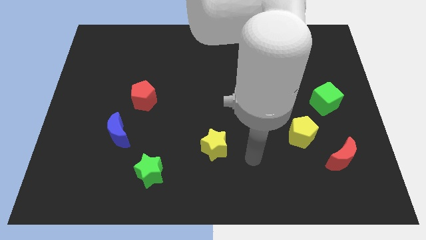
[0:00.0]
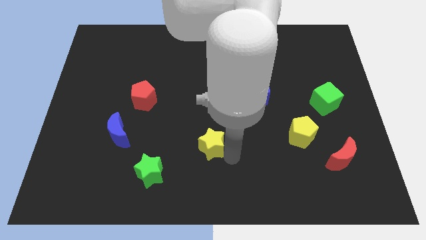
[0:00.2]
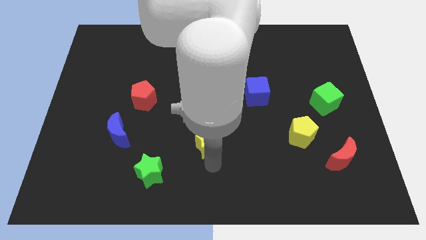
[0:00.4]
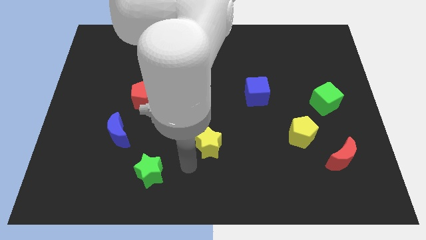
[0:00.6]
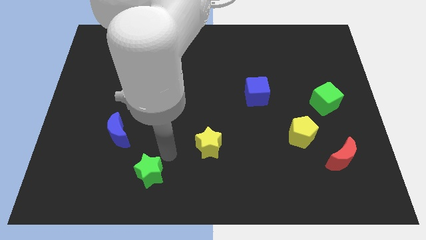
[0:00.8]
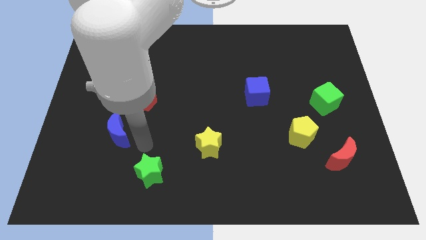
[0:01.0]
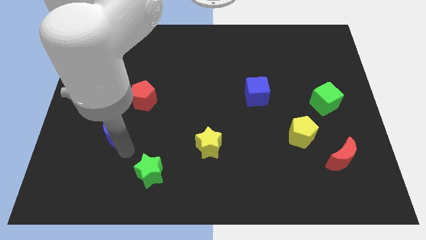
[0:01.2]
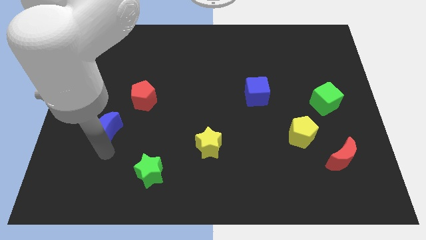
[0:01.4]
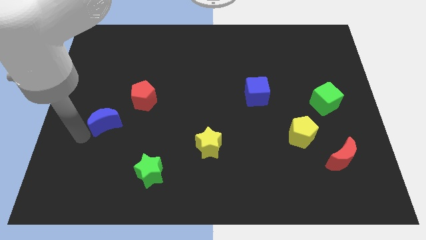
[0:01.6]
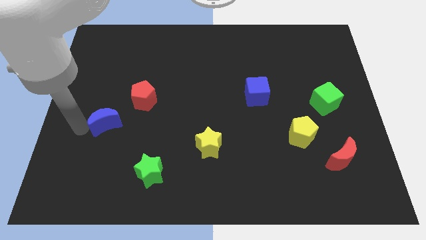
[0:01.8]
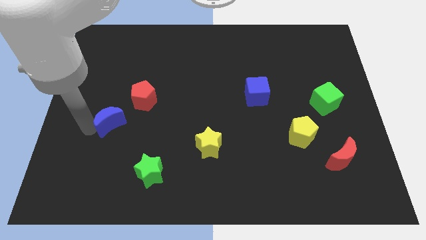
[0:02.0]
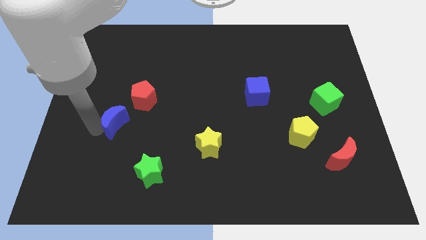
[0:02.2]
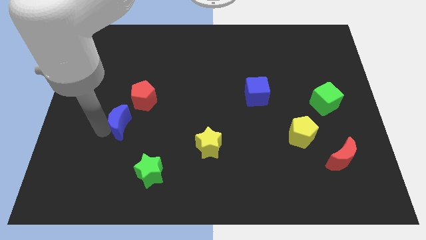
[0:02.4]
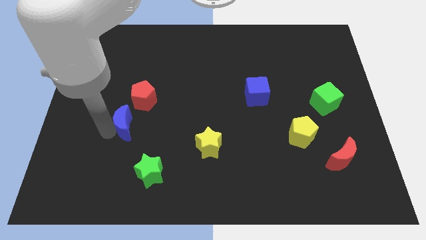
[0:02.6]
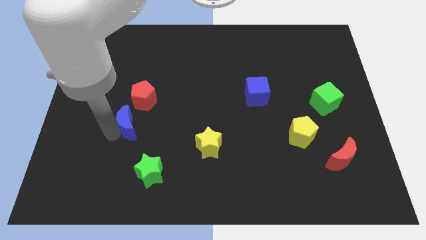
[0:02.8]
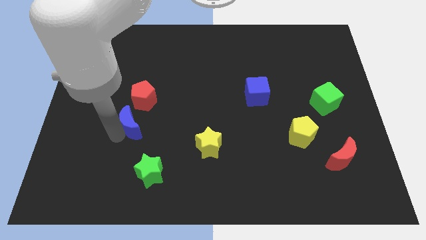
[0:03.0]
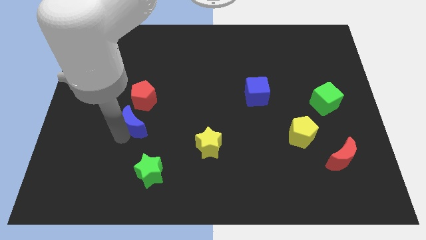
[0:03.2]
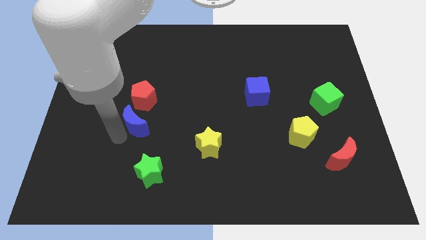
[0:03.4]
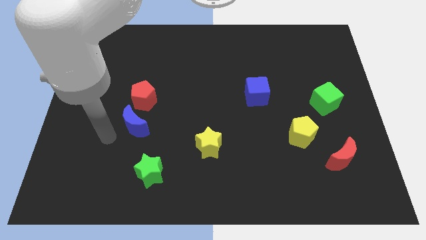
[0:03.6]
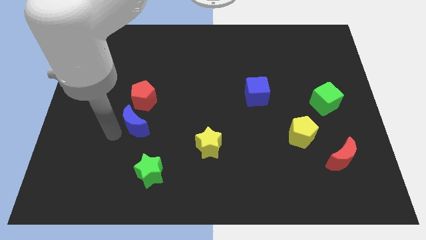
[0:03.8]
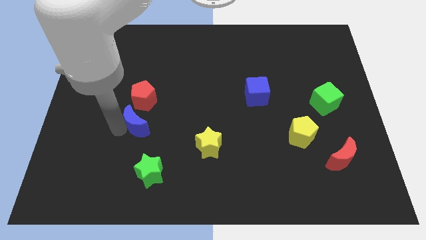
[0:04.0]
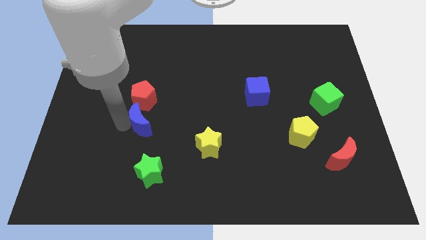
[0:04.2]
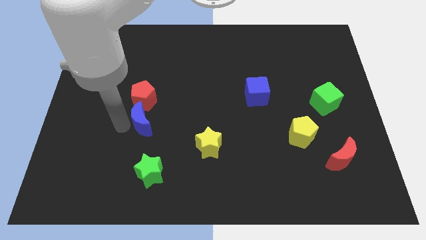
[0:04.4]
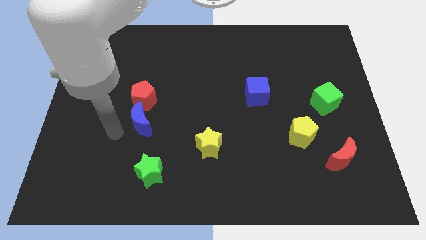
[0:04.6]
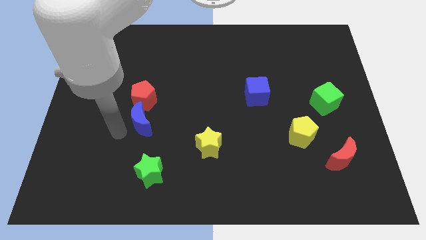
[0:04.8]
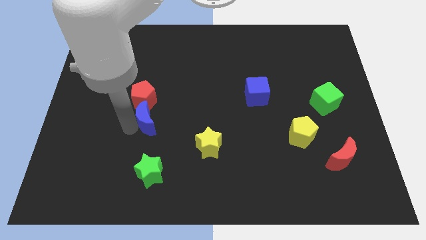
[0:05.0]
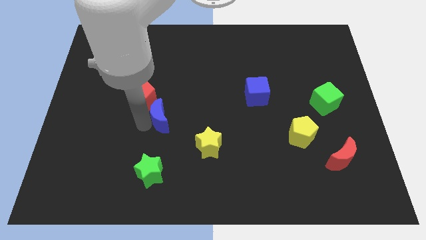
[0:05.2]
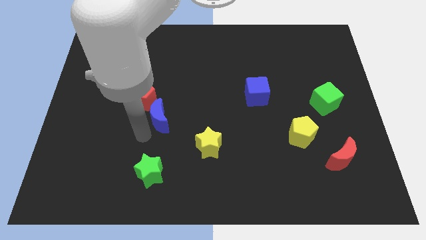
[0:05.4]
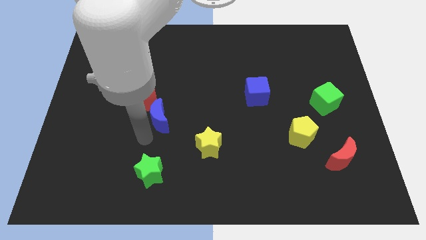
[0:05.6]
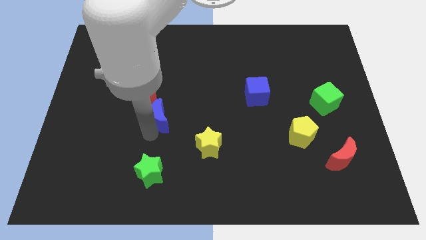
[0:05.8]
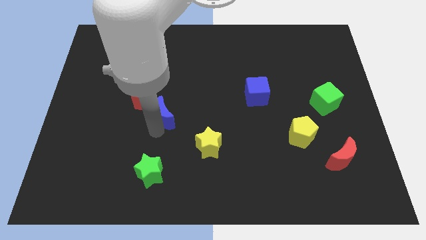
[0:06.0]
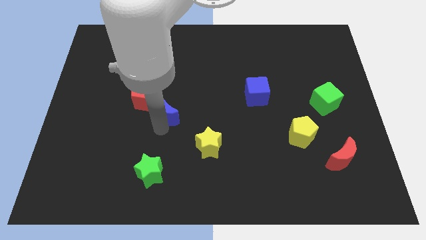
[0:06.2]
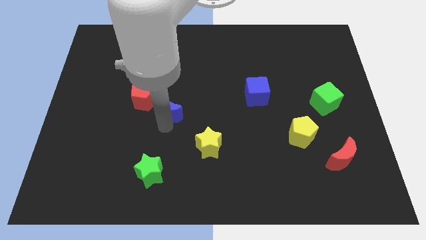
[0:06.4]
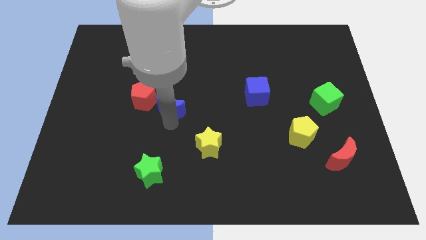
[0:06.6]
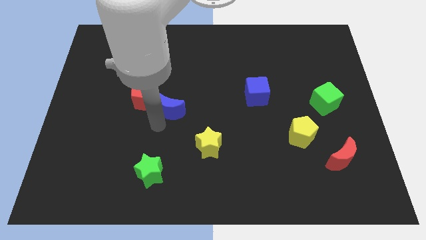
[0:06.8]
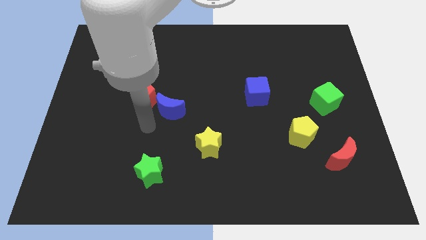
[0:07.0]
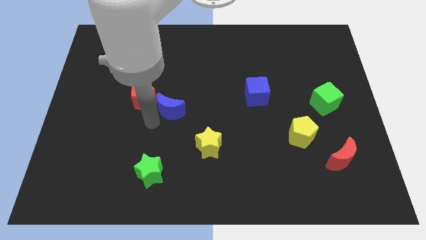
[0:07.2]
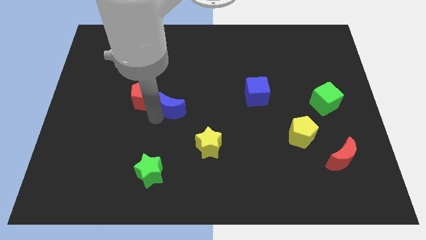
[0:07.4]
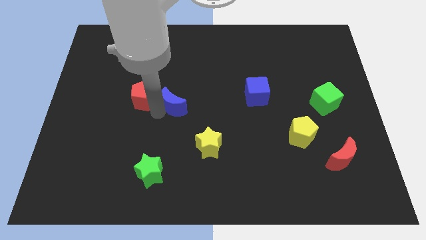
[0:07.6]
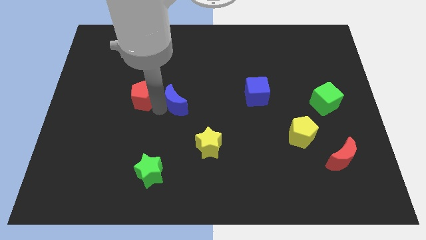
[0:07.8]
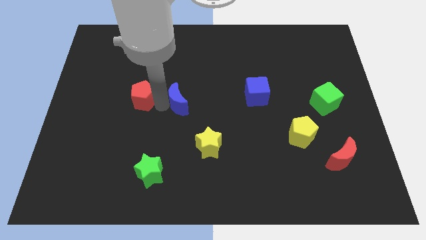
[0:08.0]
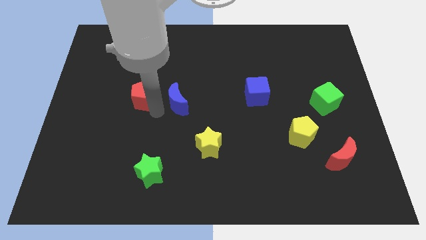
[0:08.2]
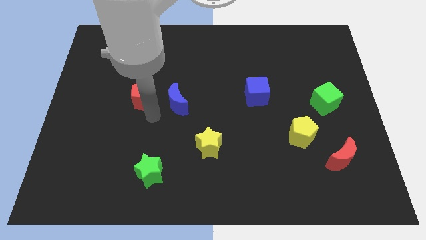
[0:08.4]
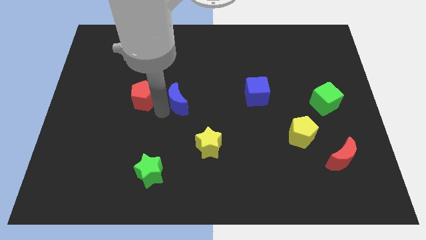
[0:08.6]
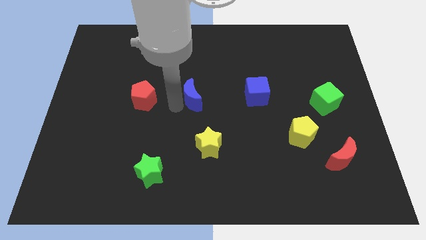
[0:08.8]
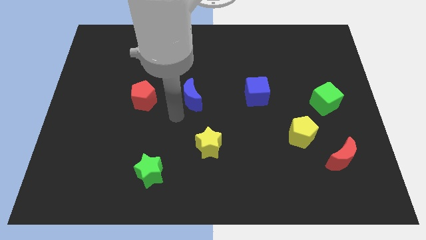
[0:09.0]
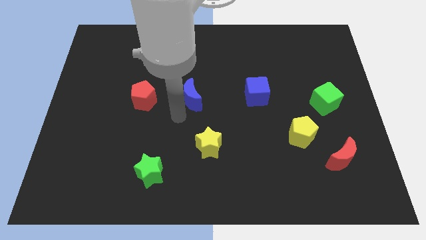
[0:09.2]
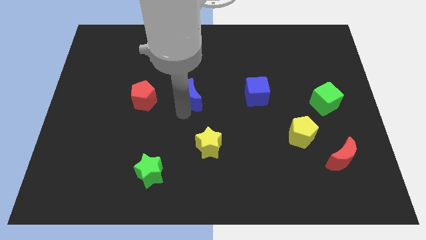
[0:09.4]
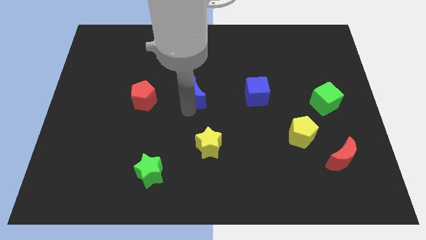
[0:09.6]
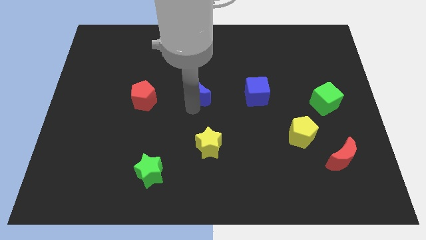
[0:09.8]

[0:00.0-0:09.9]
move the blue moon upwards and right

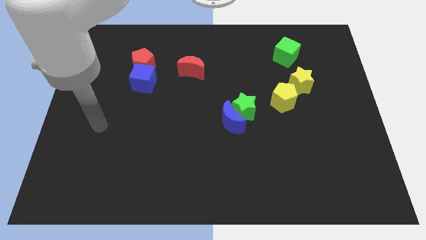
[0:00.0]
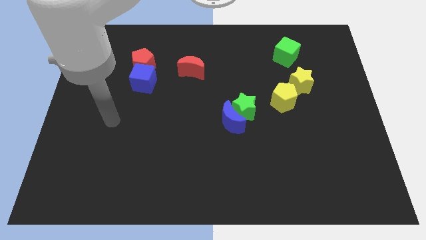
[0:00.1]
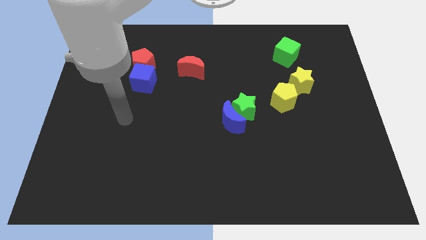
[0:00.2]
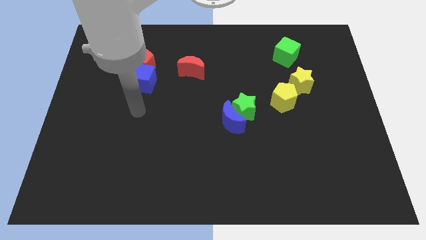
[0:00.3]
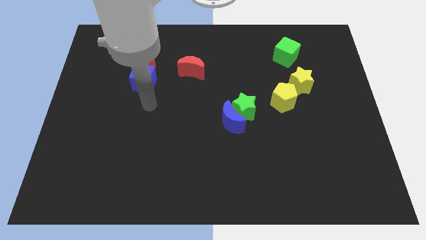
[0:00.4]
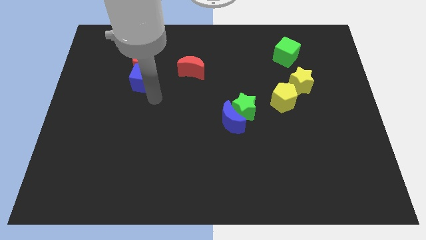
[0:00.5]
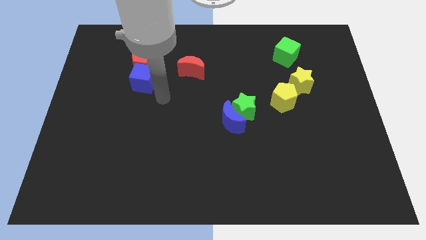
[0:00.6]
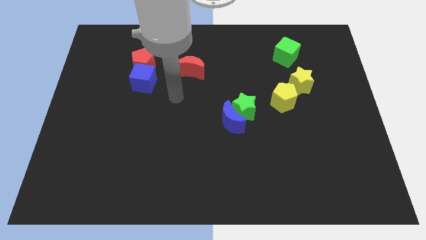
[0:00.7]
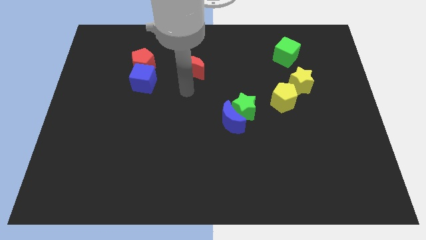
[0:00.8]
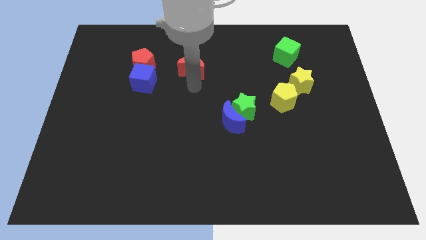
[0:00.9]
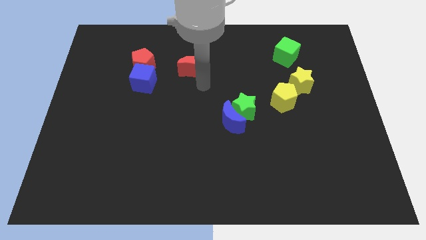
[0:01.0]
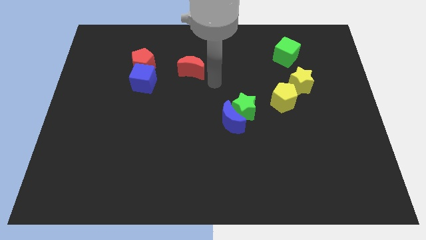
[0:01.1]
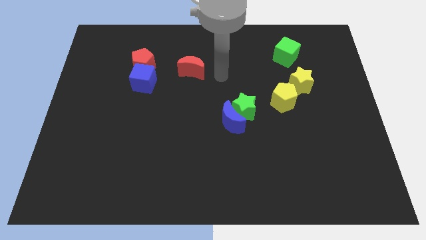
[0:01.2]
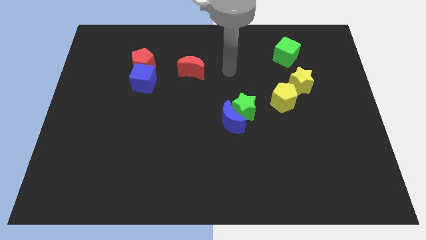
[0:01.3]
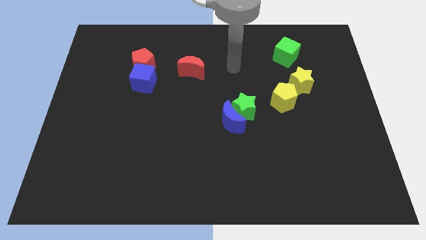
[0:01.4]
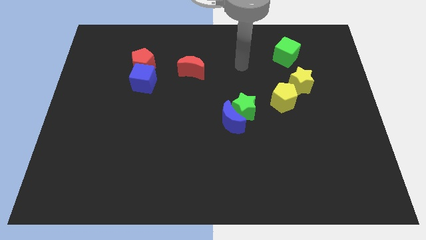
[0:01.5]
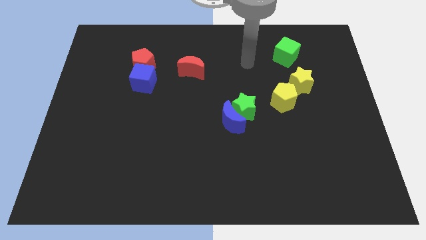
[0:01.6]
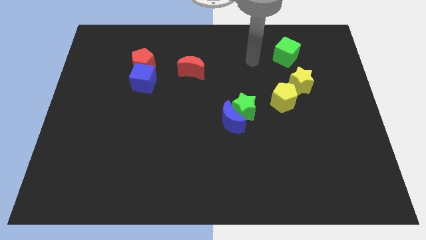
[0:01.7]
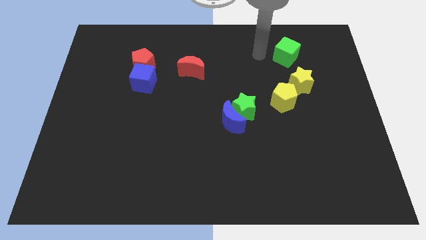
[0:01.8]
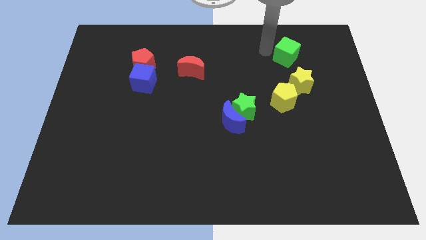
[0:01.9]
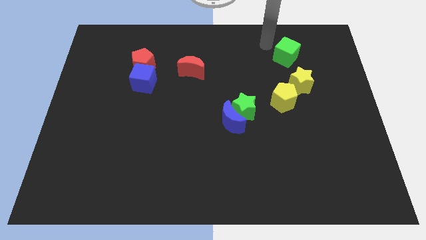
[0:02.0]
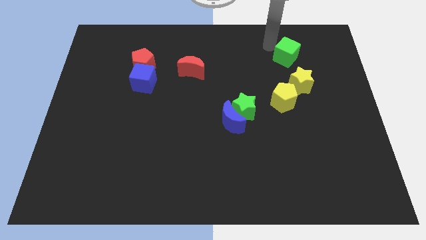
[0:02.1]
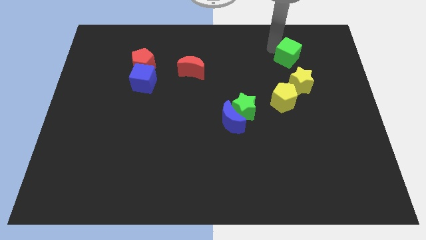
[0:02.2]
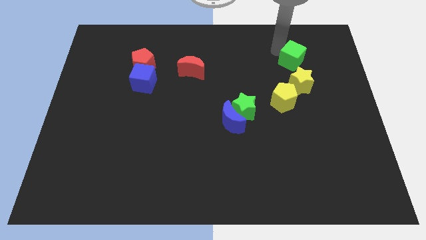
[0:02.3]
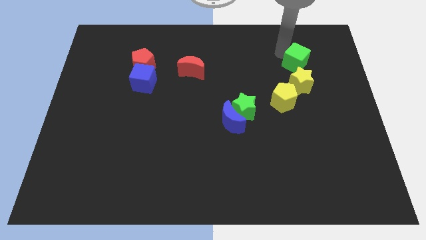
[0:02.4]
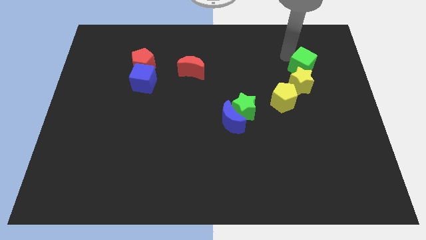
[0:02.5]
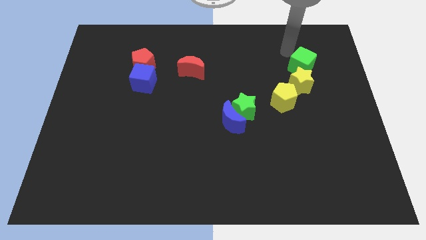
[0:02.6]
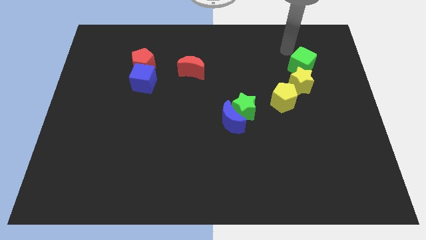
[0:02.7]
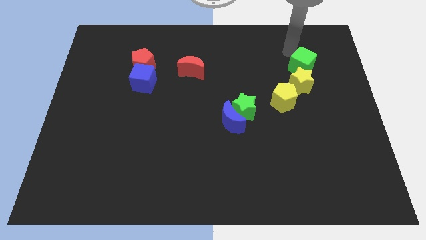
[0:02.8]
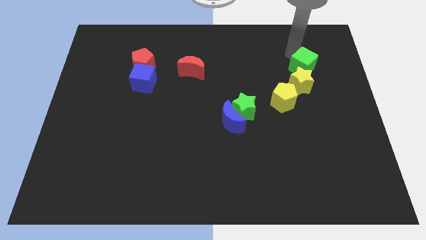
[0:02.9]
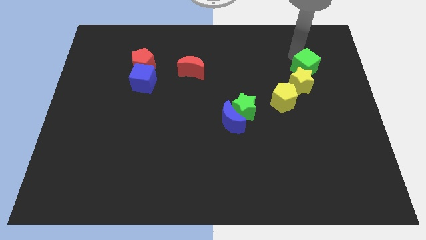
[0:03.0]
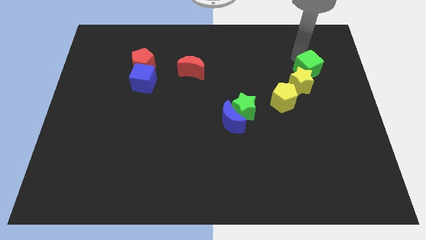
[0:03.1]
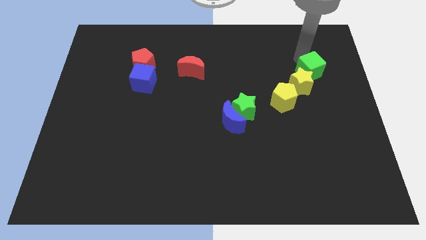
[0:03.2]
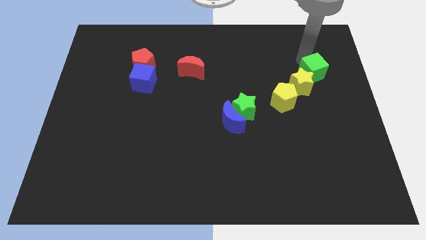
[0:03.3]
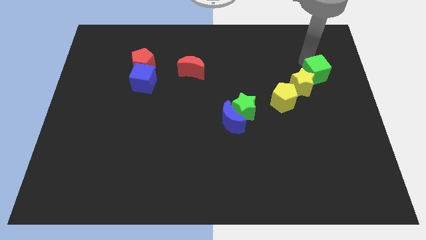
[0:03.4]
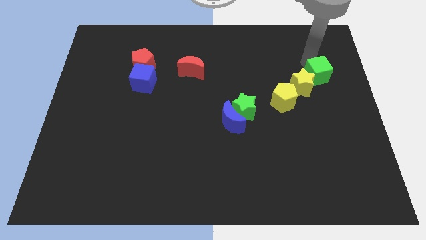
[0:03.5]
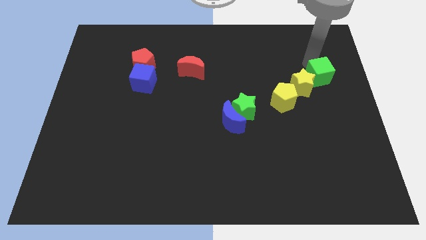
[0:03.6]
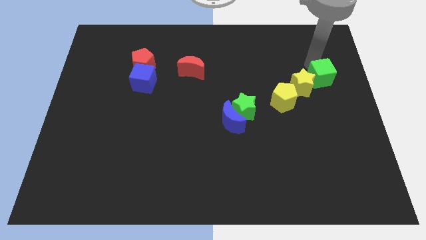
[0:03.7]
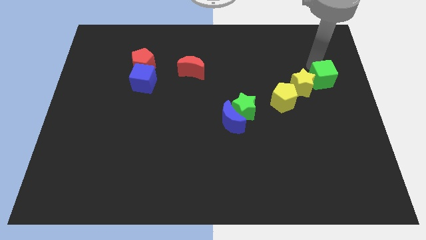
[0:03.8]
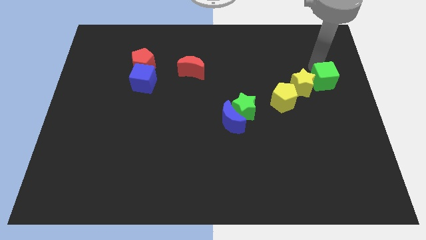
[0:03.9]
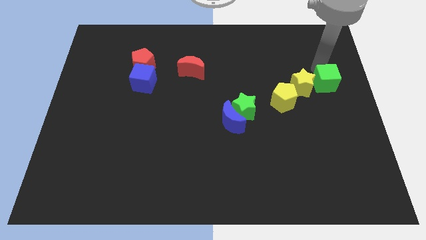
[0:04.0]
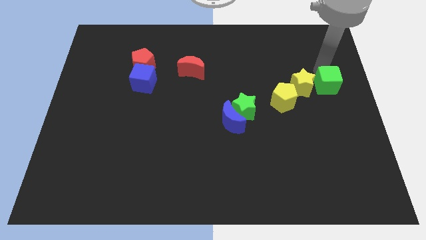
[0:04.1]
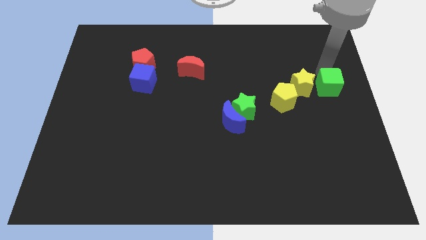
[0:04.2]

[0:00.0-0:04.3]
slightly slide the green cube downwards
